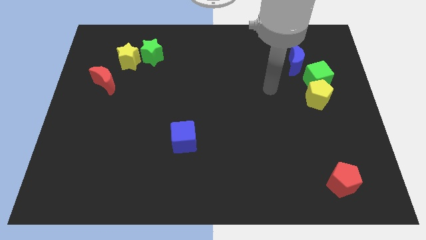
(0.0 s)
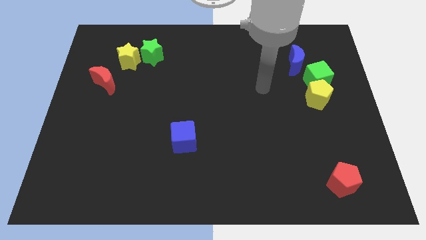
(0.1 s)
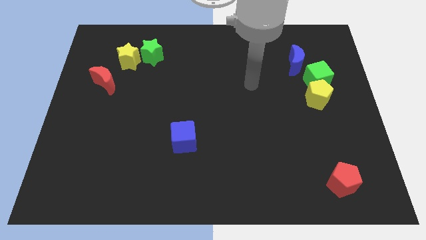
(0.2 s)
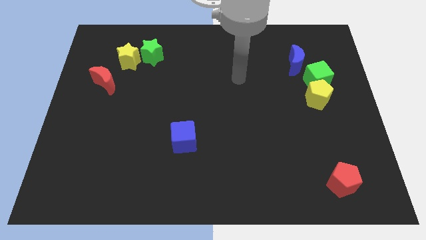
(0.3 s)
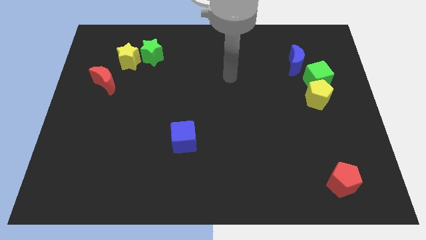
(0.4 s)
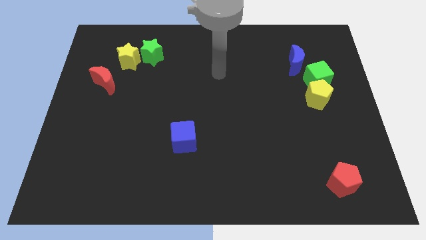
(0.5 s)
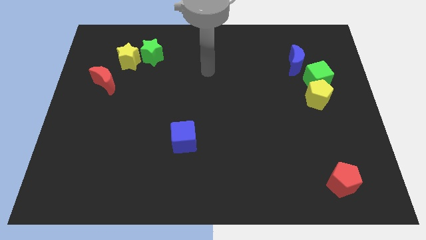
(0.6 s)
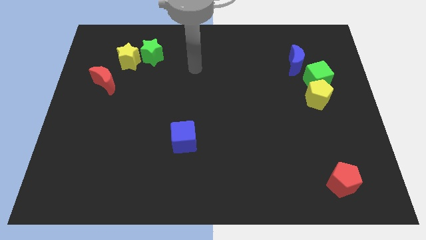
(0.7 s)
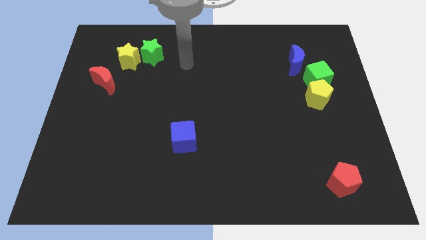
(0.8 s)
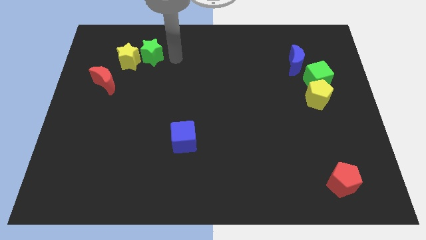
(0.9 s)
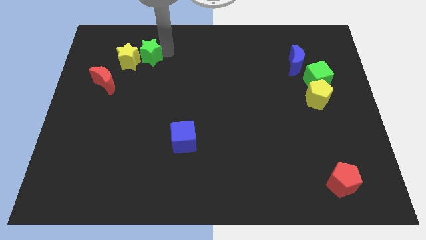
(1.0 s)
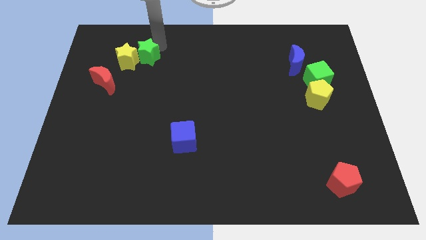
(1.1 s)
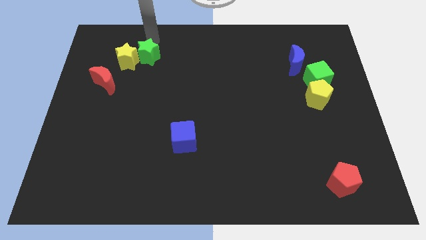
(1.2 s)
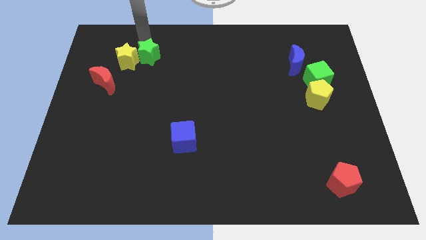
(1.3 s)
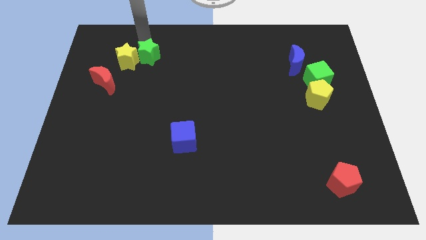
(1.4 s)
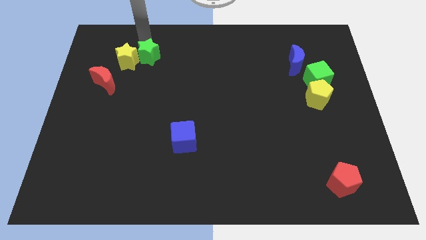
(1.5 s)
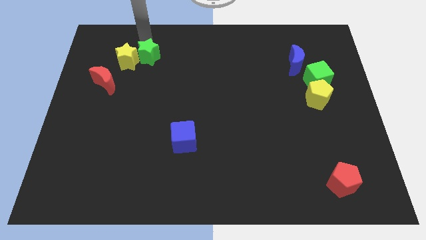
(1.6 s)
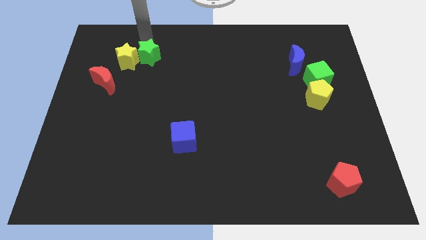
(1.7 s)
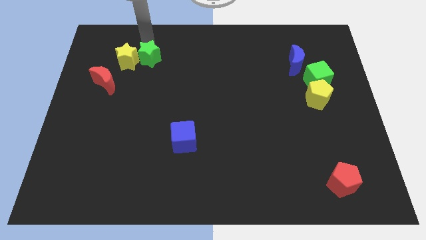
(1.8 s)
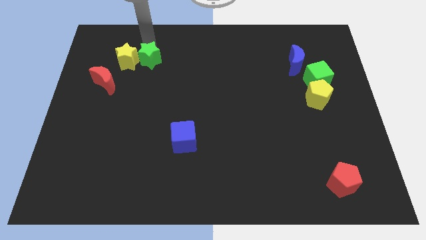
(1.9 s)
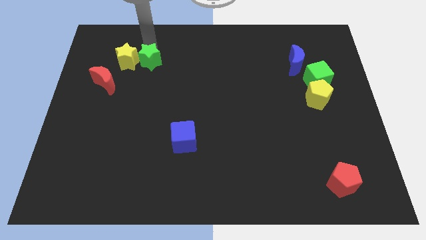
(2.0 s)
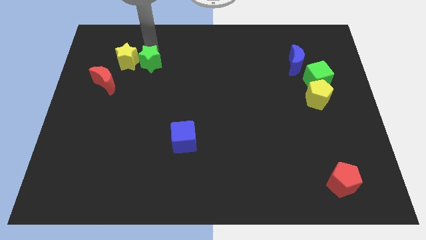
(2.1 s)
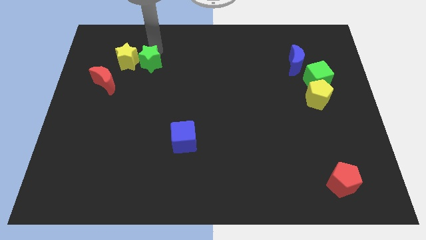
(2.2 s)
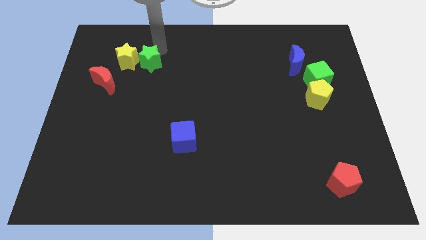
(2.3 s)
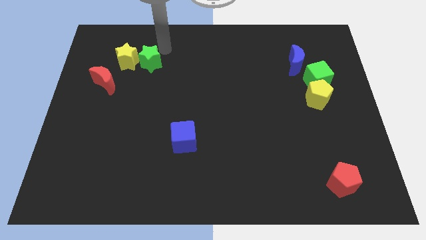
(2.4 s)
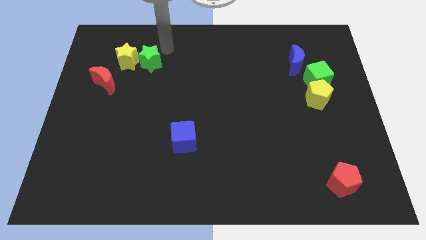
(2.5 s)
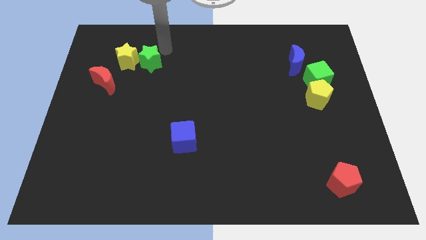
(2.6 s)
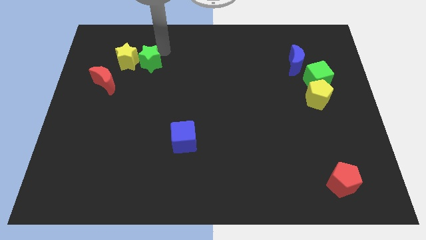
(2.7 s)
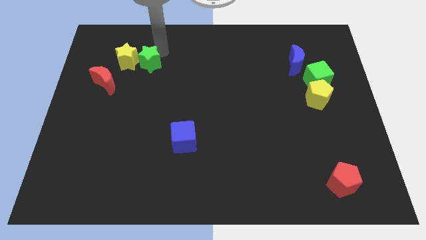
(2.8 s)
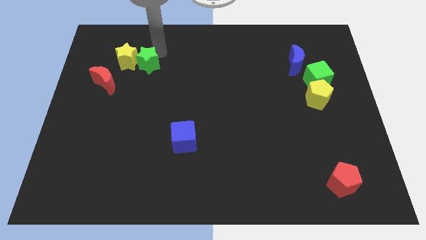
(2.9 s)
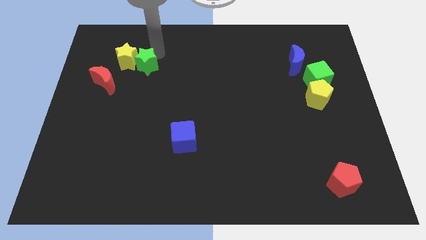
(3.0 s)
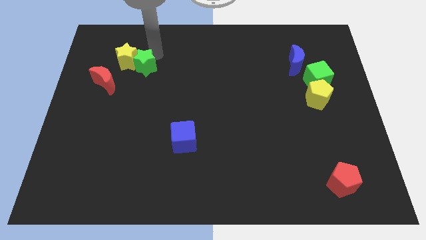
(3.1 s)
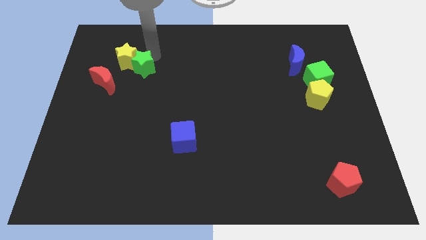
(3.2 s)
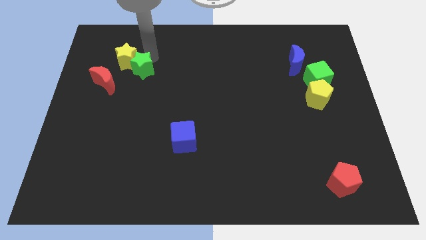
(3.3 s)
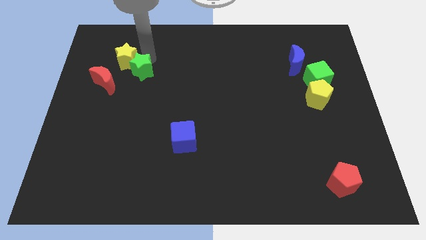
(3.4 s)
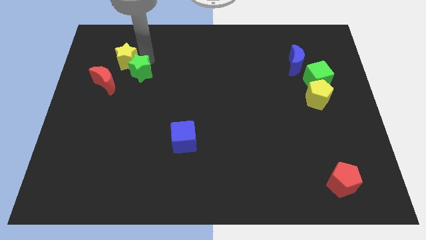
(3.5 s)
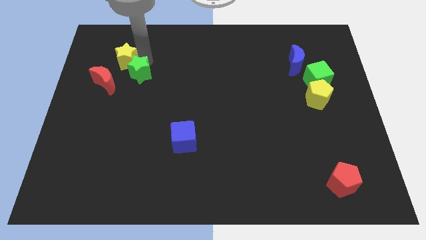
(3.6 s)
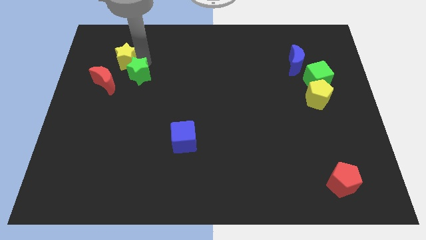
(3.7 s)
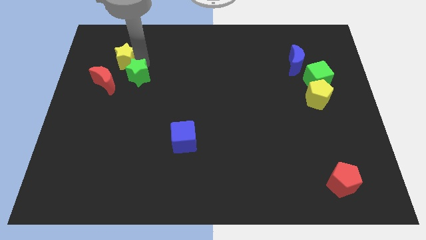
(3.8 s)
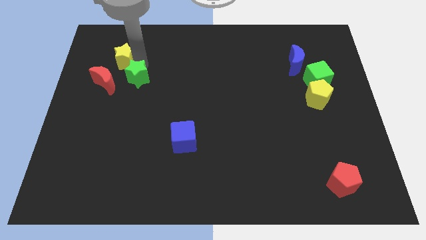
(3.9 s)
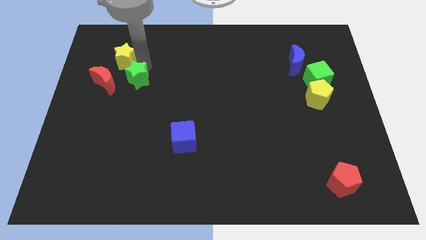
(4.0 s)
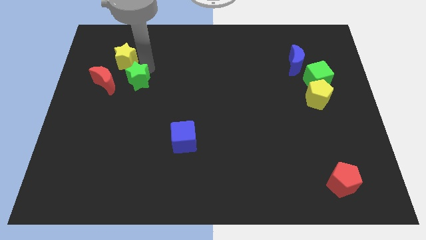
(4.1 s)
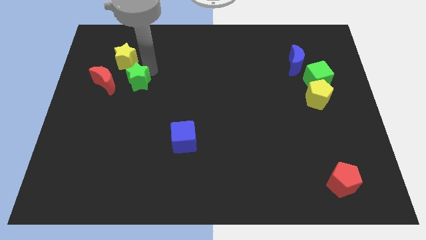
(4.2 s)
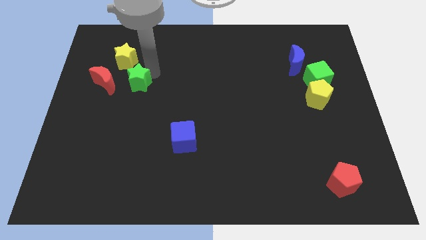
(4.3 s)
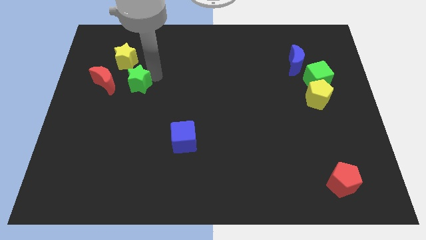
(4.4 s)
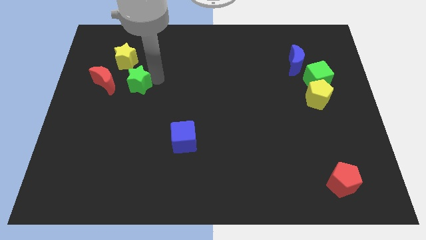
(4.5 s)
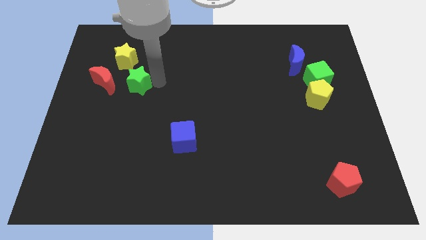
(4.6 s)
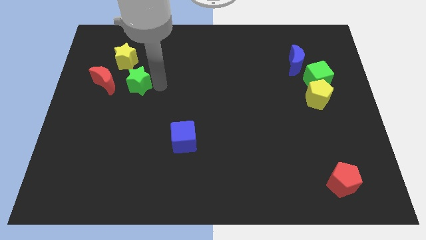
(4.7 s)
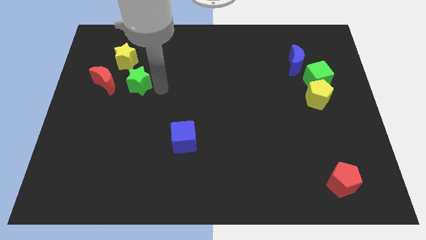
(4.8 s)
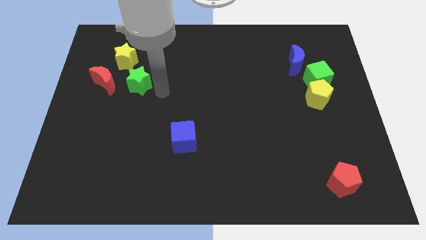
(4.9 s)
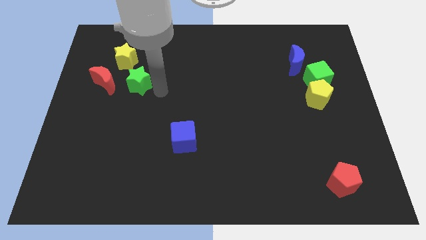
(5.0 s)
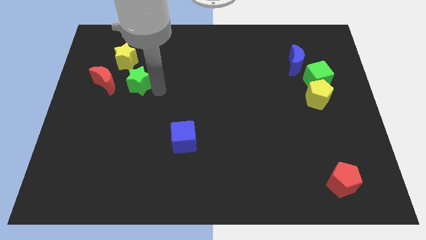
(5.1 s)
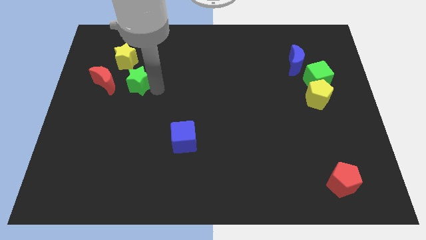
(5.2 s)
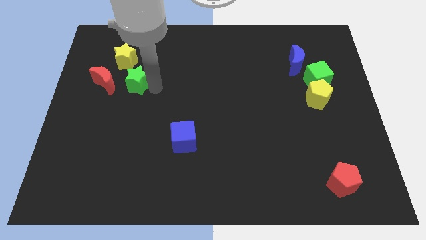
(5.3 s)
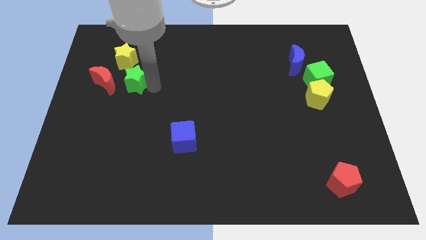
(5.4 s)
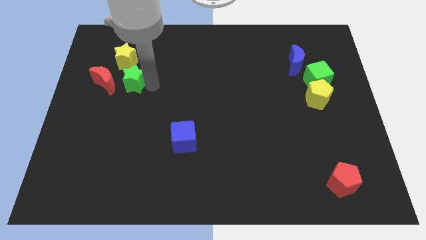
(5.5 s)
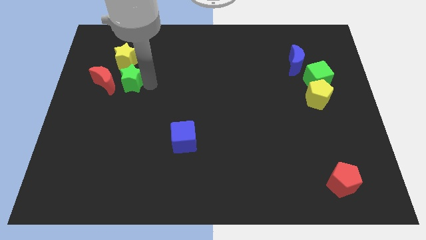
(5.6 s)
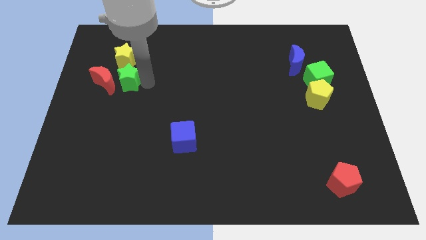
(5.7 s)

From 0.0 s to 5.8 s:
push the green star to the red moon

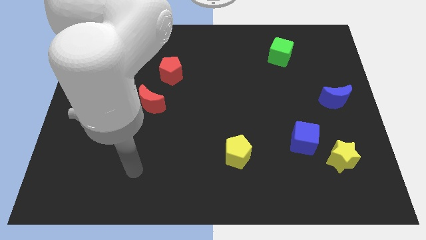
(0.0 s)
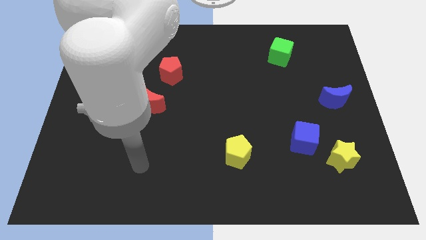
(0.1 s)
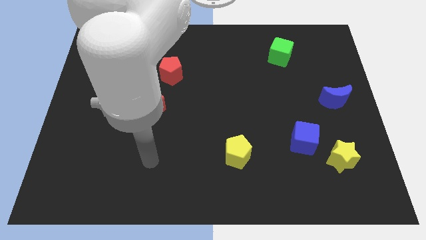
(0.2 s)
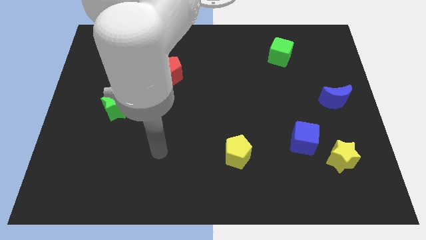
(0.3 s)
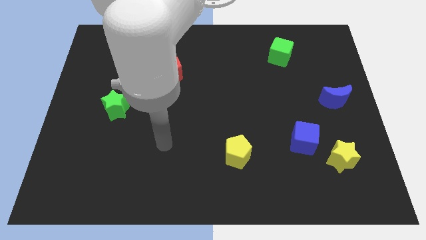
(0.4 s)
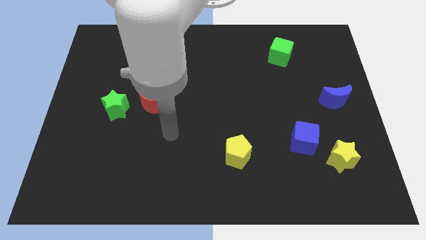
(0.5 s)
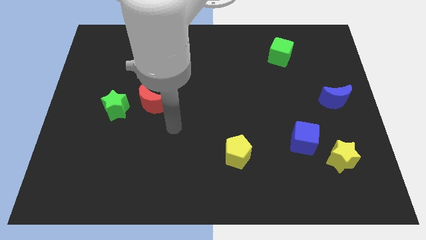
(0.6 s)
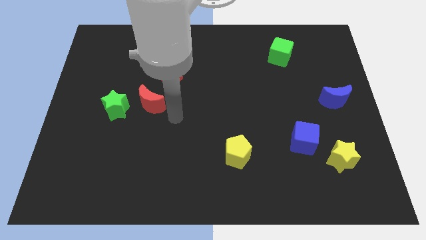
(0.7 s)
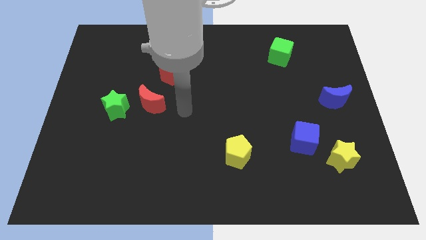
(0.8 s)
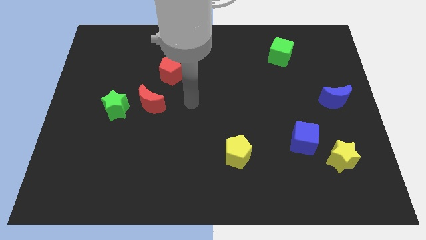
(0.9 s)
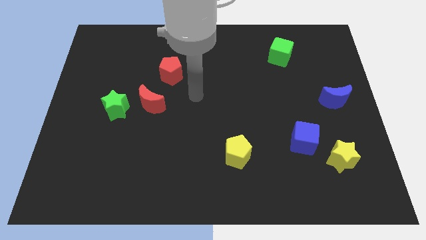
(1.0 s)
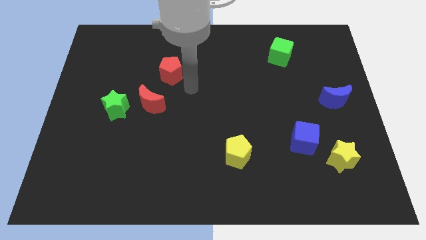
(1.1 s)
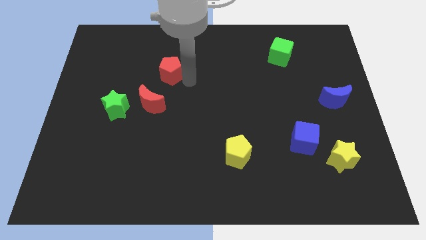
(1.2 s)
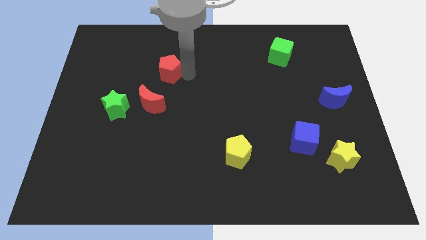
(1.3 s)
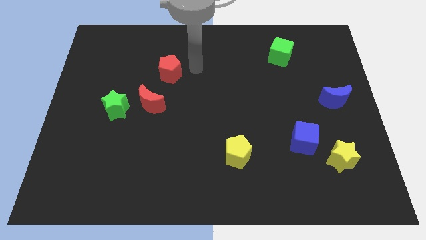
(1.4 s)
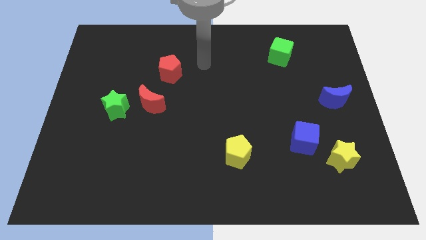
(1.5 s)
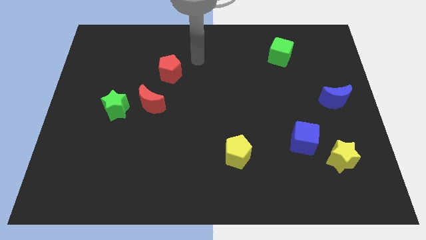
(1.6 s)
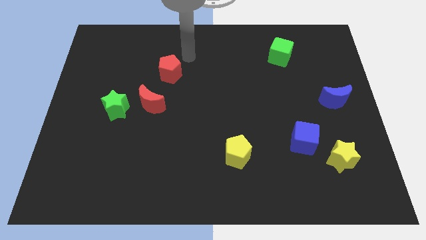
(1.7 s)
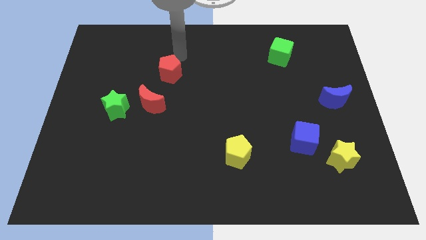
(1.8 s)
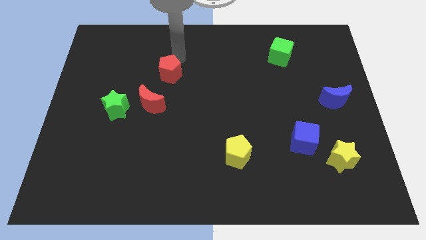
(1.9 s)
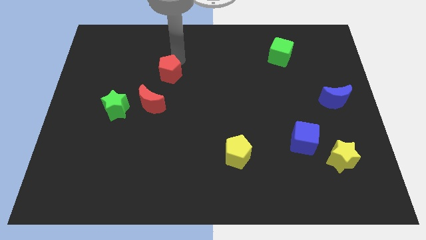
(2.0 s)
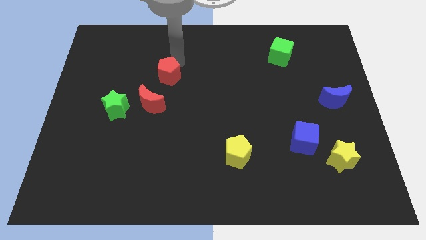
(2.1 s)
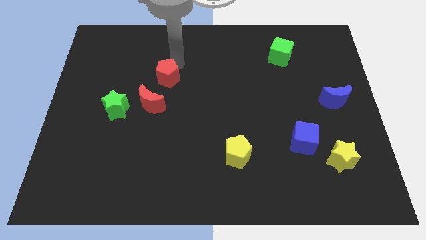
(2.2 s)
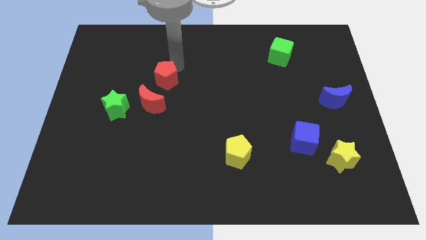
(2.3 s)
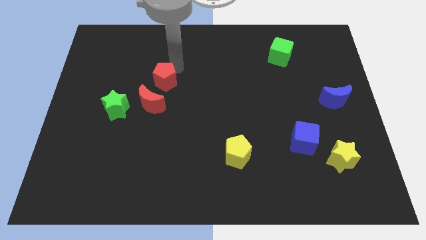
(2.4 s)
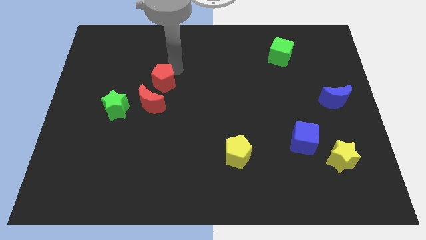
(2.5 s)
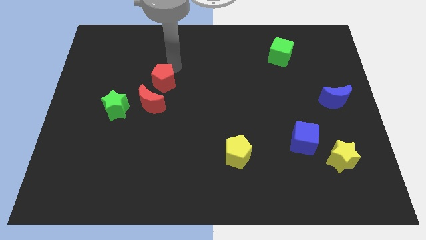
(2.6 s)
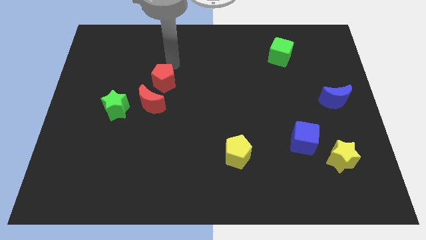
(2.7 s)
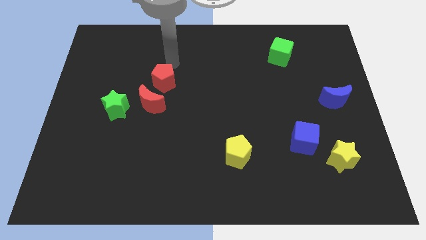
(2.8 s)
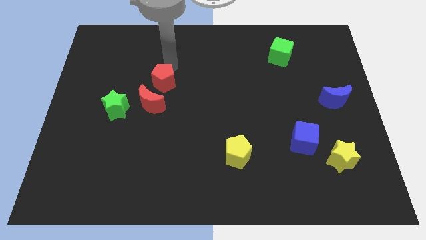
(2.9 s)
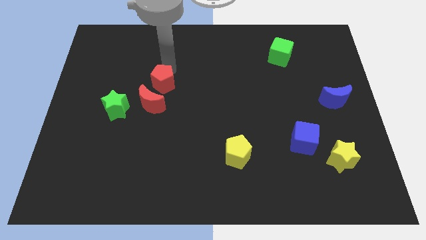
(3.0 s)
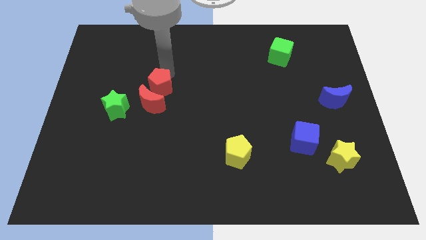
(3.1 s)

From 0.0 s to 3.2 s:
push the red pentagon close to the red moon
